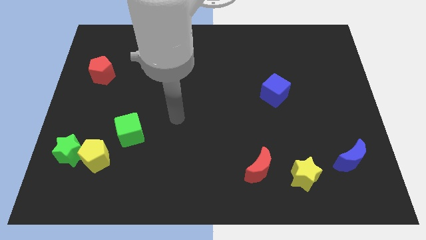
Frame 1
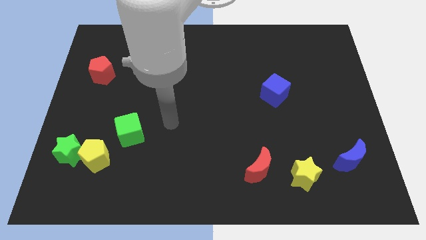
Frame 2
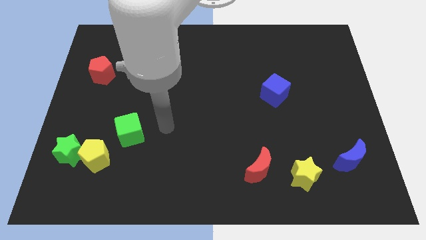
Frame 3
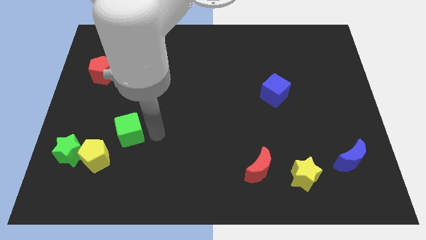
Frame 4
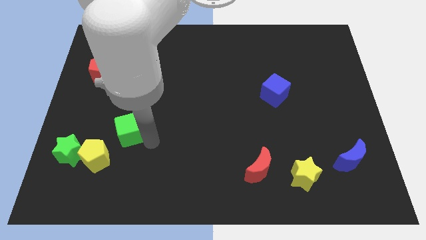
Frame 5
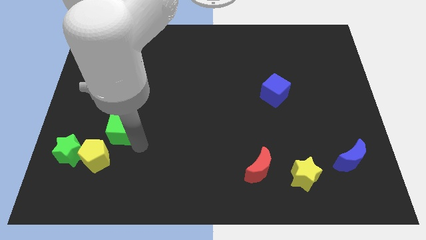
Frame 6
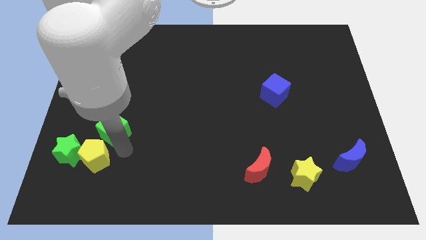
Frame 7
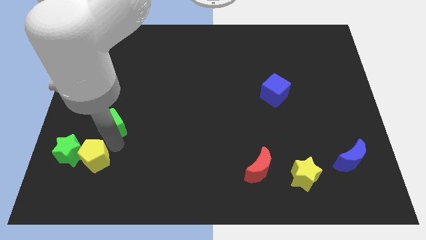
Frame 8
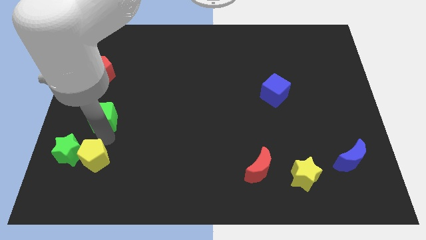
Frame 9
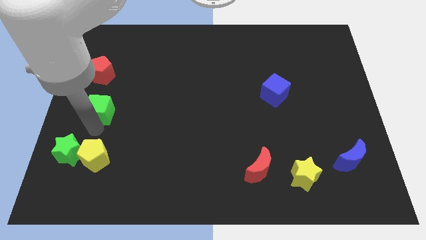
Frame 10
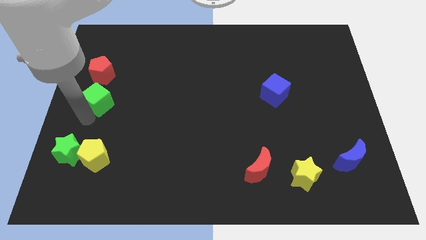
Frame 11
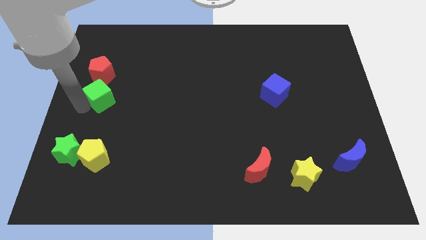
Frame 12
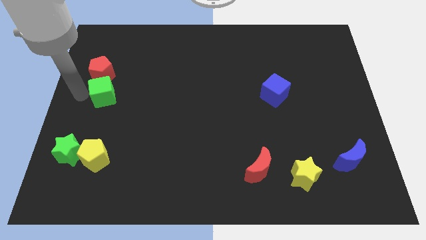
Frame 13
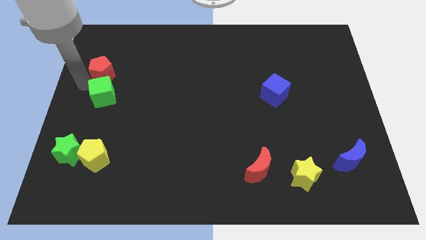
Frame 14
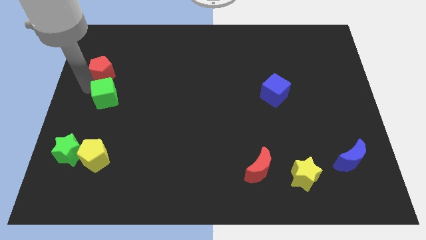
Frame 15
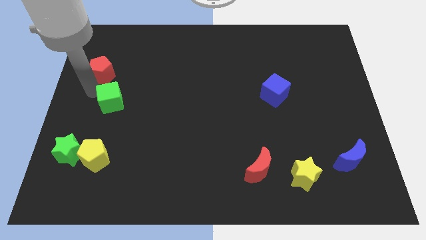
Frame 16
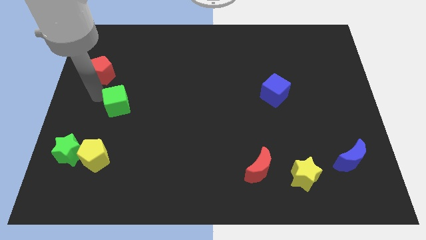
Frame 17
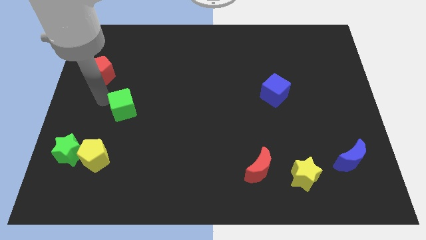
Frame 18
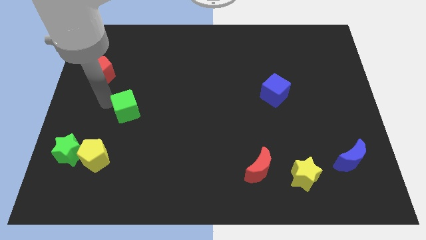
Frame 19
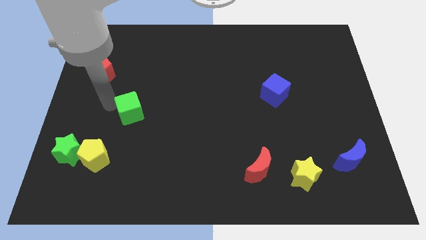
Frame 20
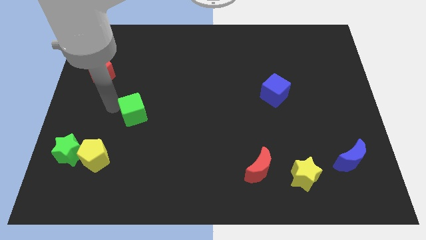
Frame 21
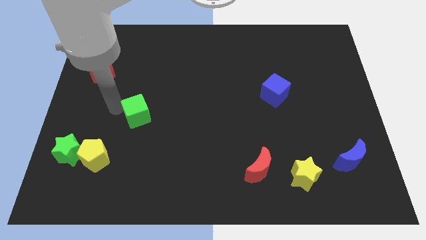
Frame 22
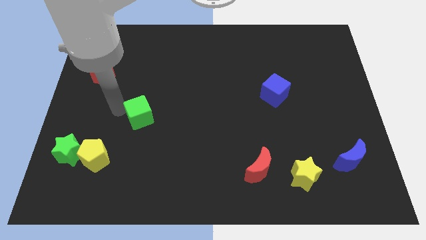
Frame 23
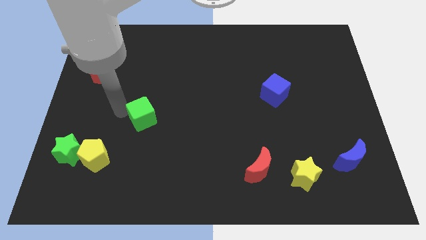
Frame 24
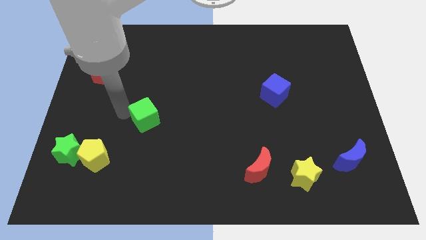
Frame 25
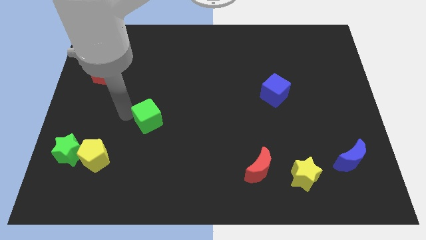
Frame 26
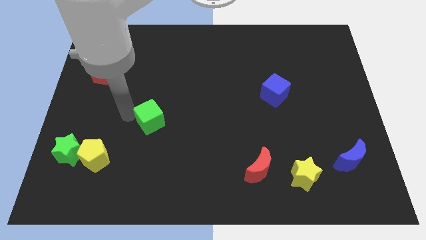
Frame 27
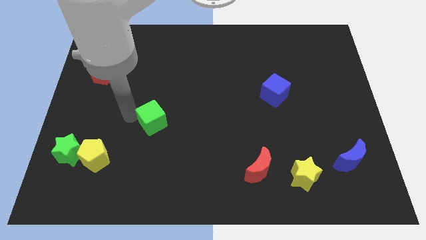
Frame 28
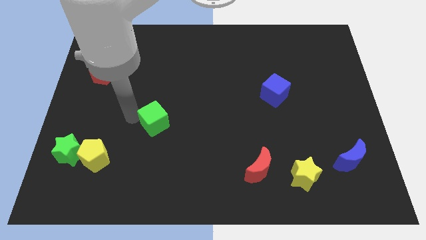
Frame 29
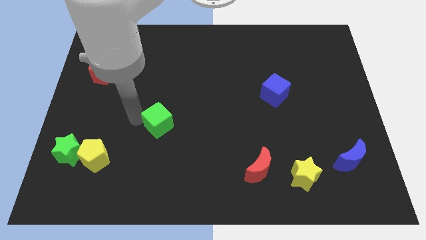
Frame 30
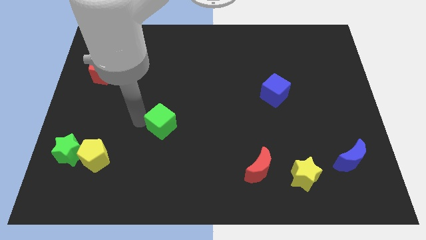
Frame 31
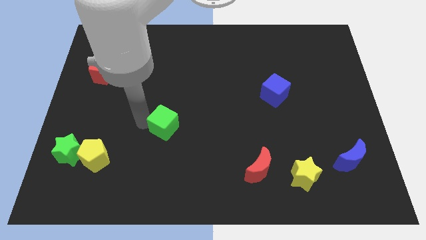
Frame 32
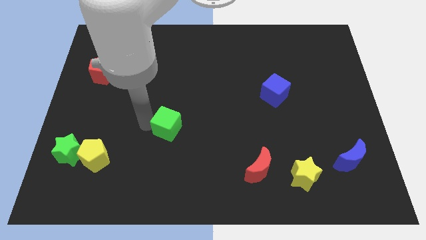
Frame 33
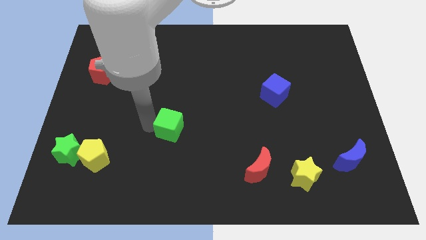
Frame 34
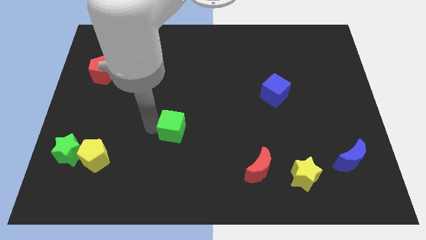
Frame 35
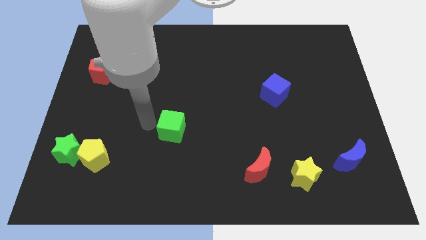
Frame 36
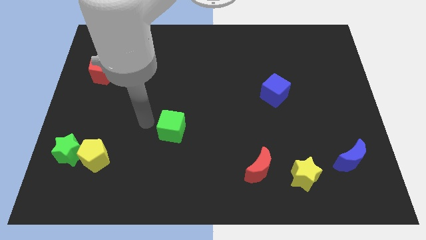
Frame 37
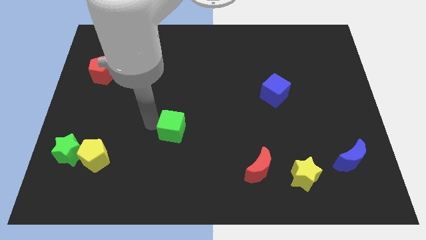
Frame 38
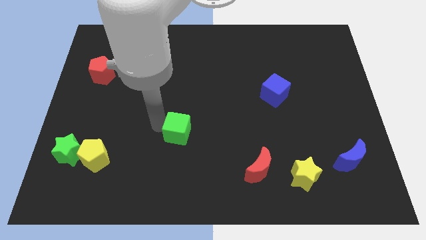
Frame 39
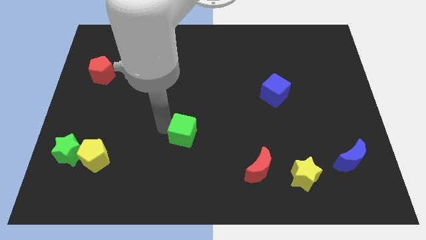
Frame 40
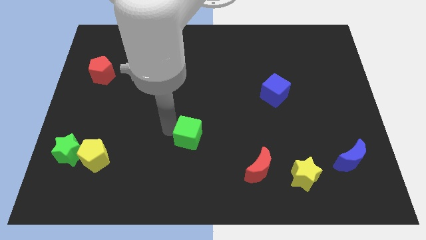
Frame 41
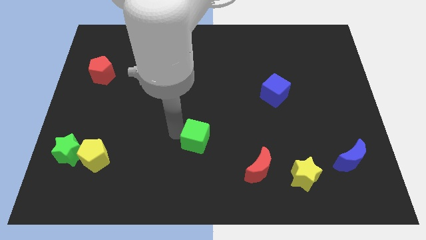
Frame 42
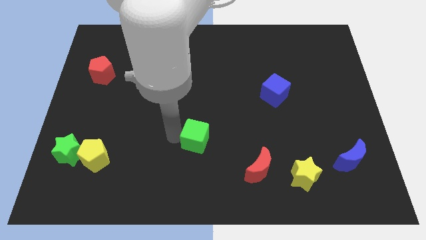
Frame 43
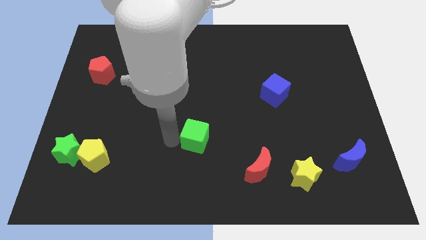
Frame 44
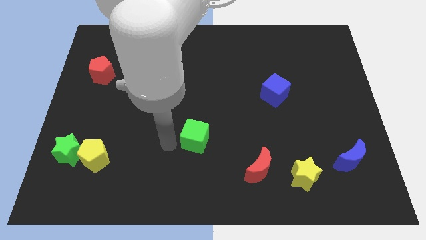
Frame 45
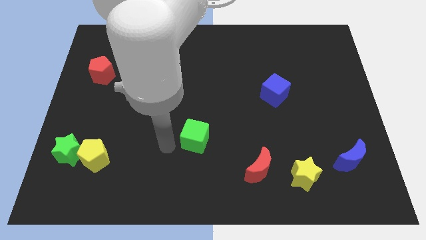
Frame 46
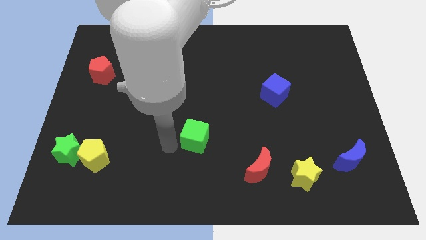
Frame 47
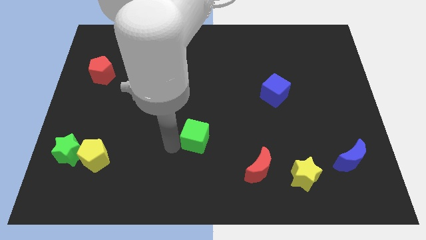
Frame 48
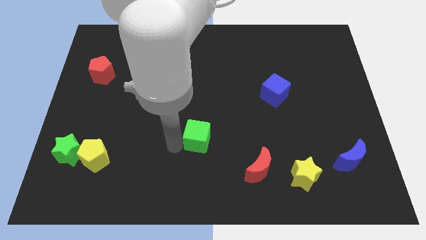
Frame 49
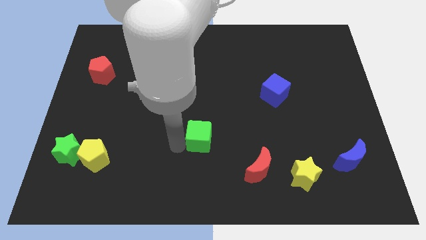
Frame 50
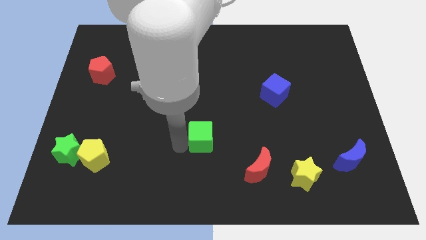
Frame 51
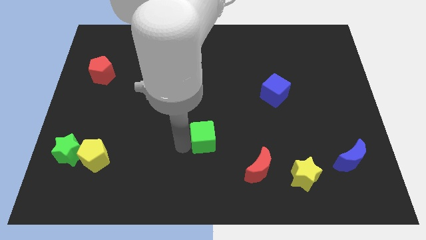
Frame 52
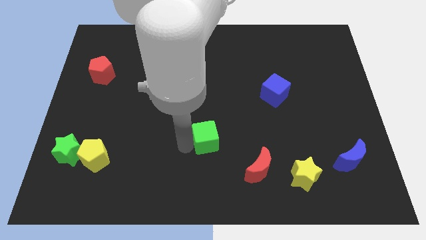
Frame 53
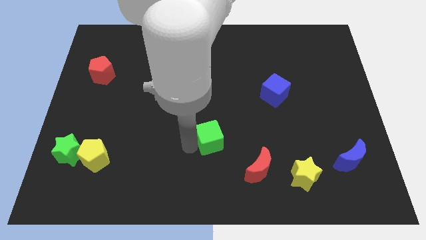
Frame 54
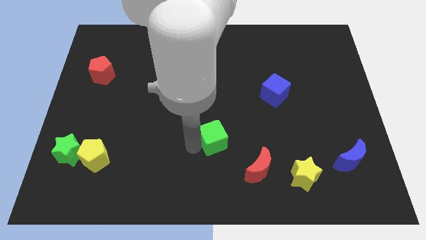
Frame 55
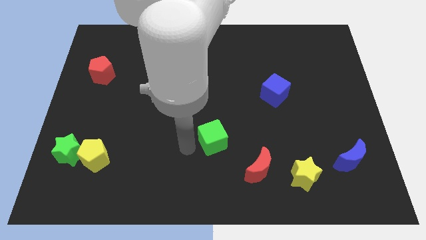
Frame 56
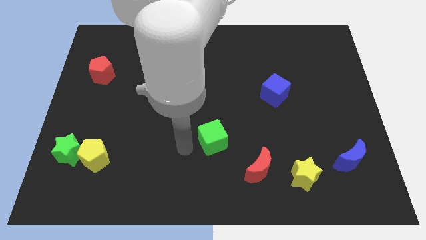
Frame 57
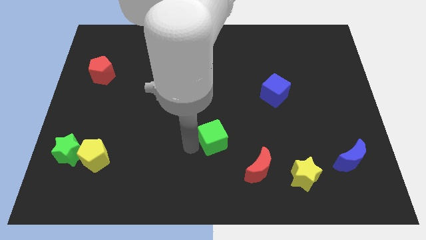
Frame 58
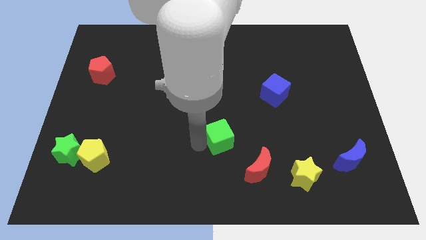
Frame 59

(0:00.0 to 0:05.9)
slide the green cube to the right

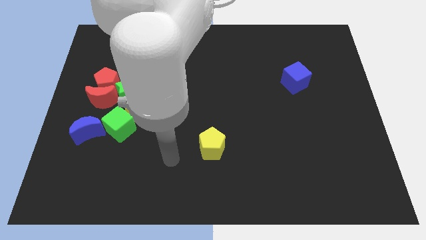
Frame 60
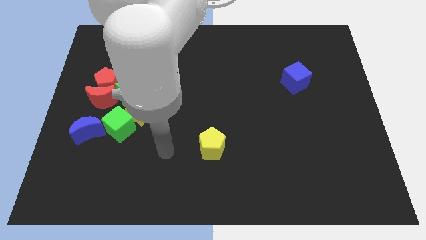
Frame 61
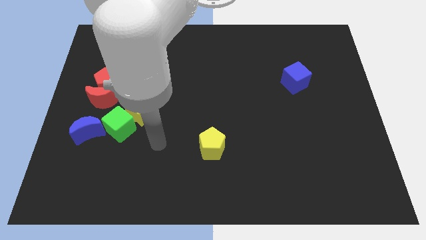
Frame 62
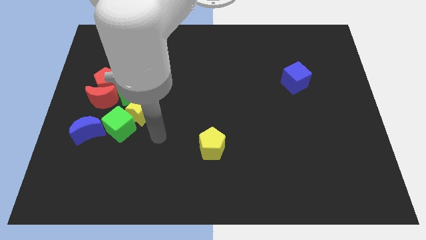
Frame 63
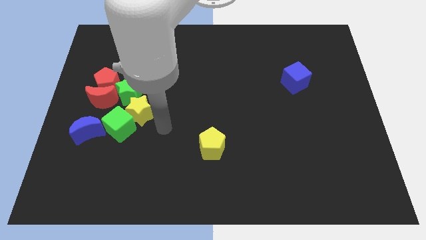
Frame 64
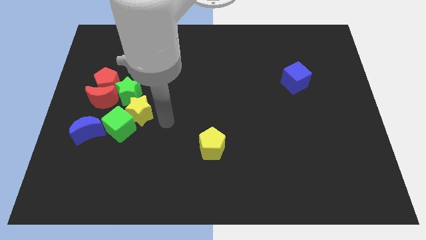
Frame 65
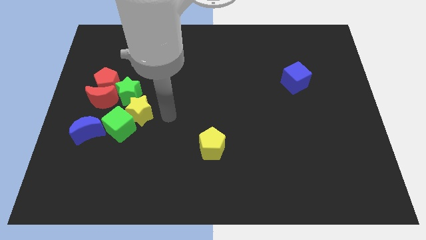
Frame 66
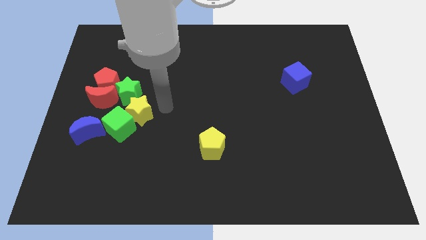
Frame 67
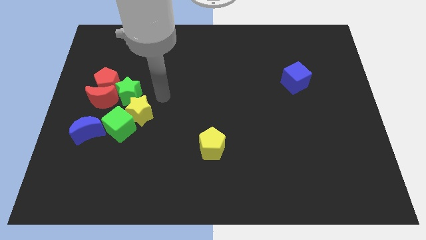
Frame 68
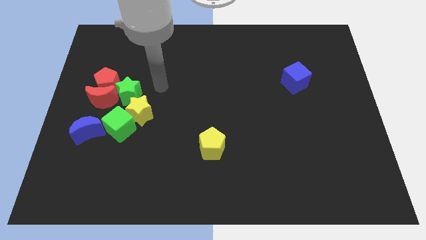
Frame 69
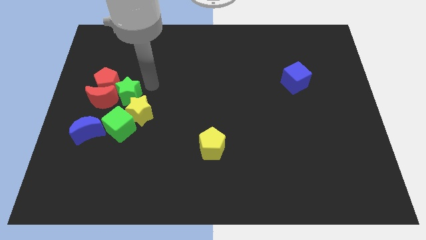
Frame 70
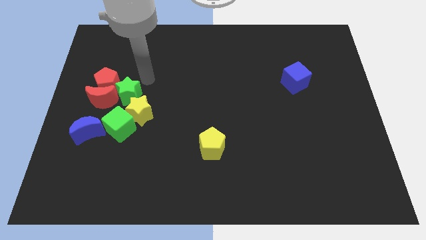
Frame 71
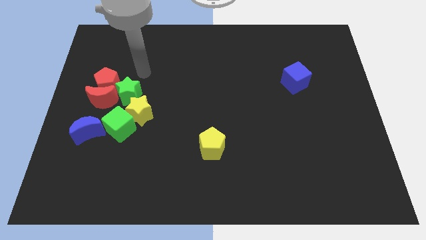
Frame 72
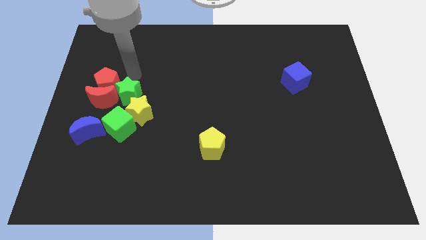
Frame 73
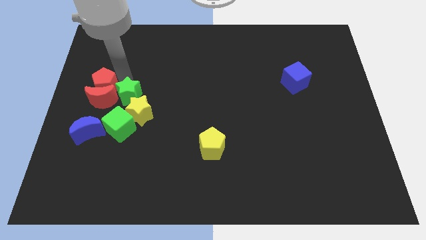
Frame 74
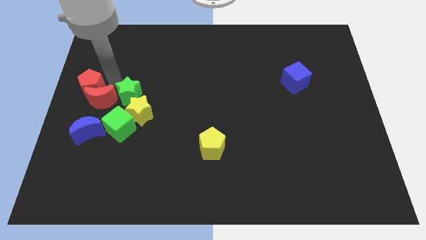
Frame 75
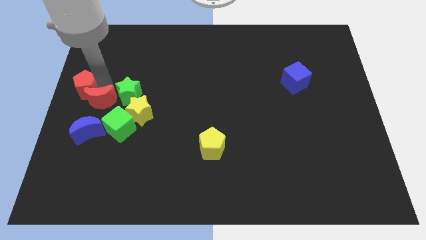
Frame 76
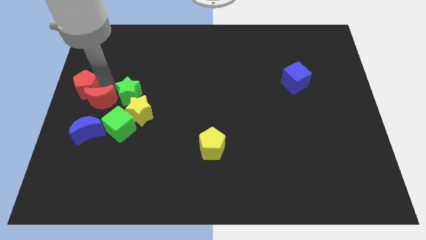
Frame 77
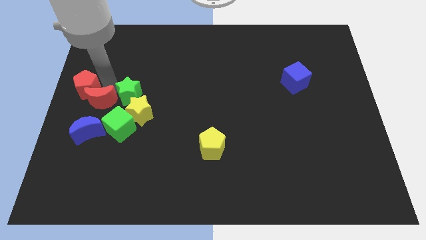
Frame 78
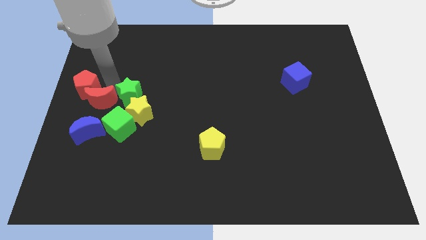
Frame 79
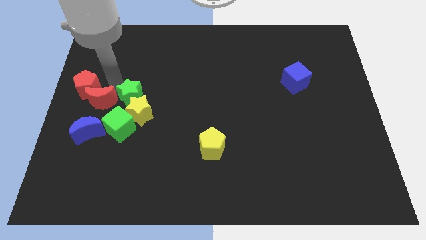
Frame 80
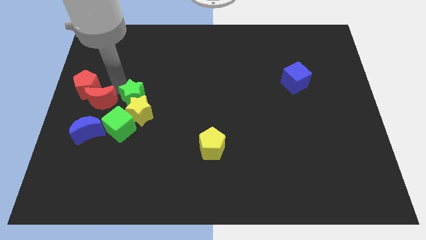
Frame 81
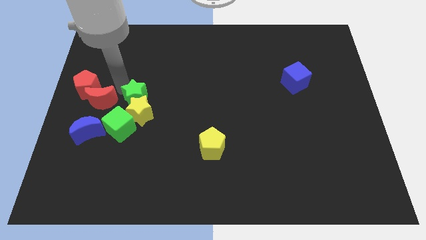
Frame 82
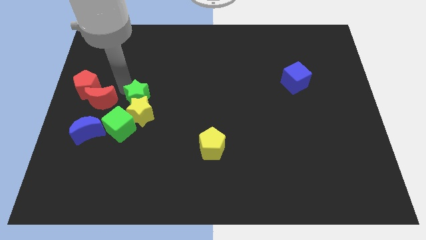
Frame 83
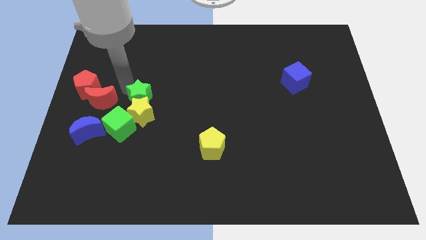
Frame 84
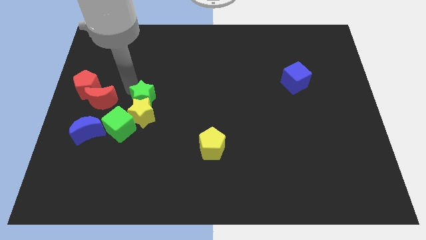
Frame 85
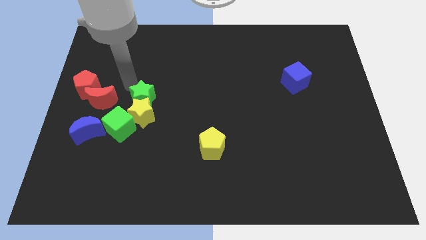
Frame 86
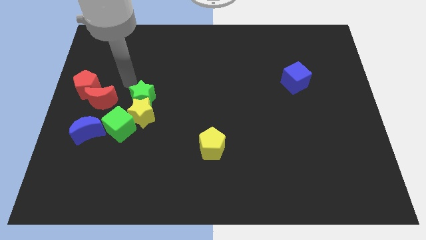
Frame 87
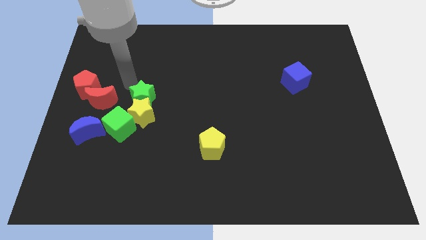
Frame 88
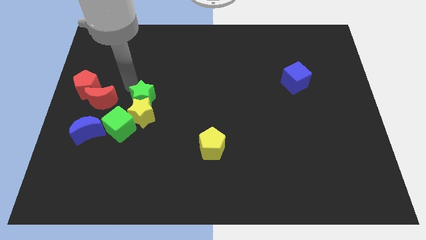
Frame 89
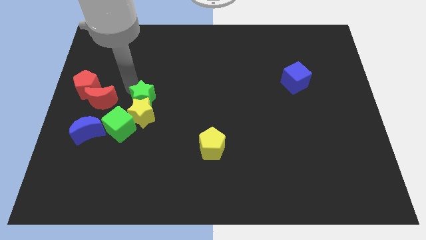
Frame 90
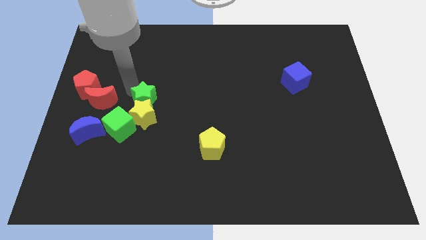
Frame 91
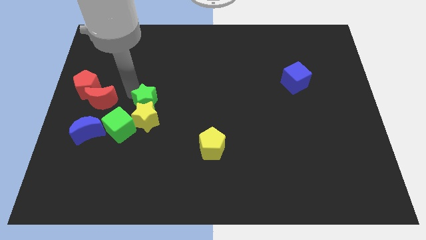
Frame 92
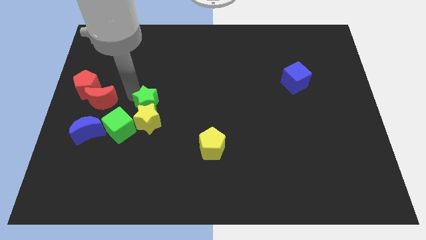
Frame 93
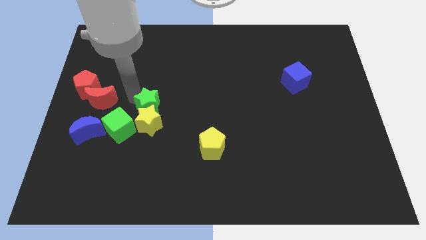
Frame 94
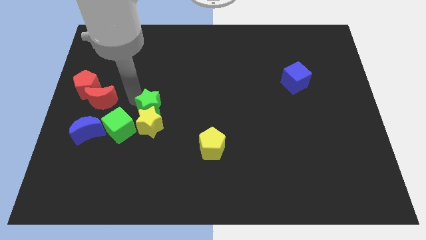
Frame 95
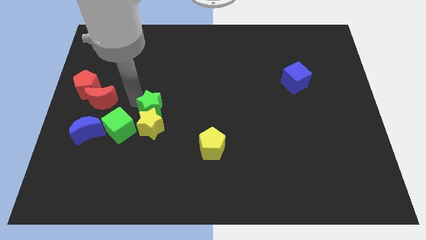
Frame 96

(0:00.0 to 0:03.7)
push the green star somewhat down and to the right diagonally
